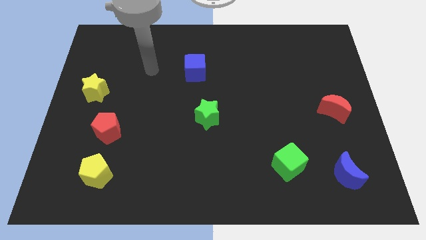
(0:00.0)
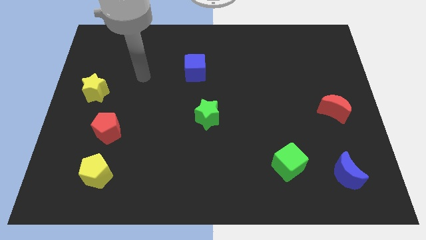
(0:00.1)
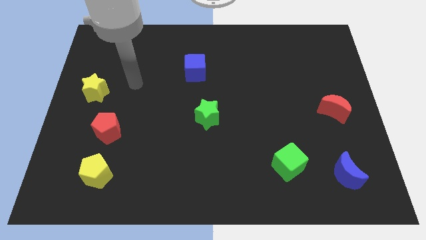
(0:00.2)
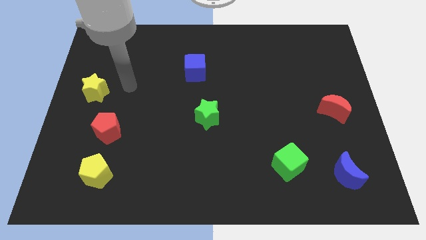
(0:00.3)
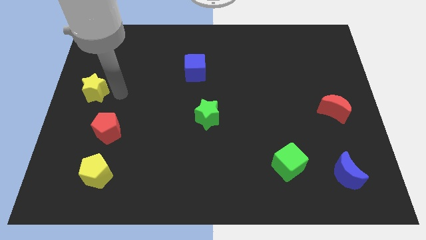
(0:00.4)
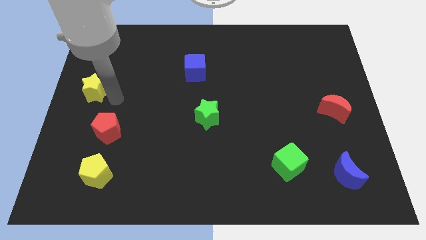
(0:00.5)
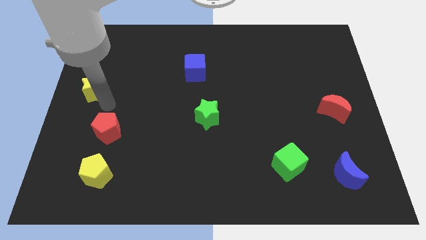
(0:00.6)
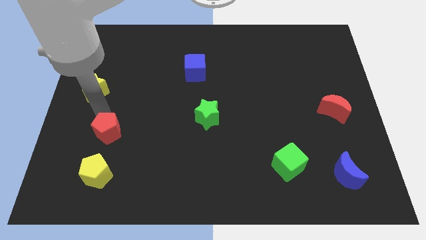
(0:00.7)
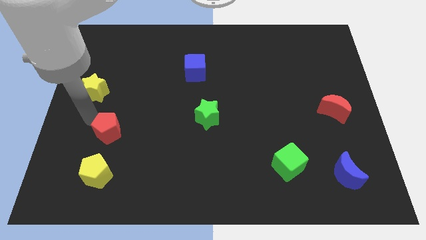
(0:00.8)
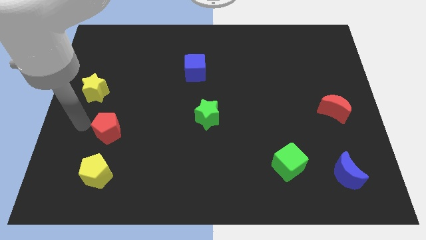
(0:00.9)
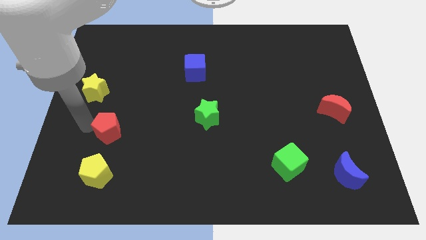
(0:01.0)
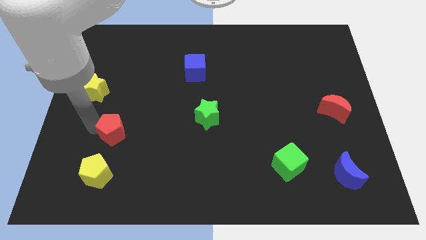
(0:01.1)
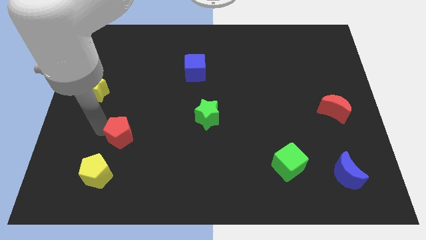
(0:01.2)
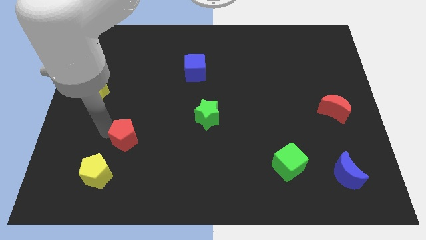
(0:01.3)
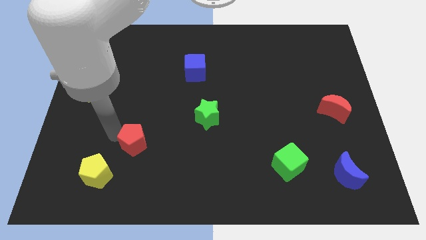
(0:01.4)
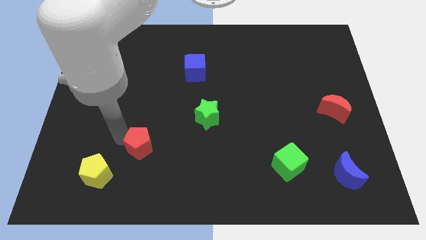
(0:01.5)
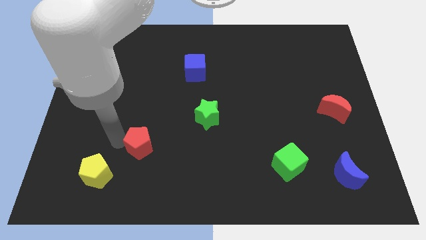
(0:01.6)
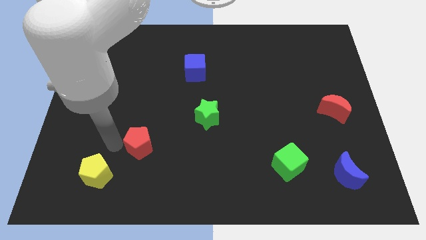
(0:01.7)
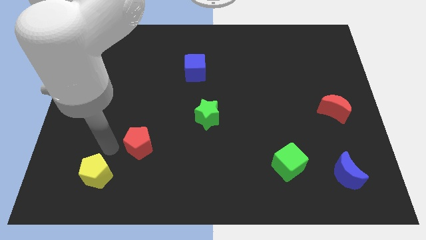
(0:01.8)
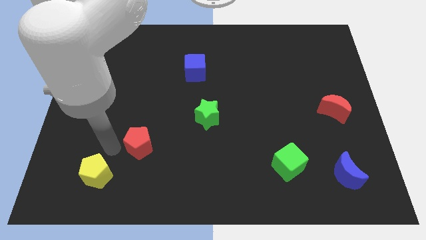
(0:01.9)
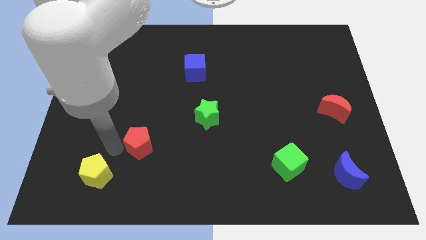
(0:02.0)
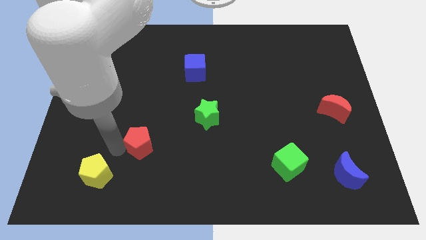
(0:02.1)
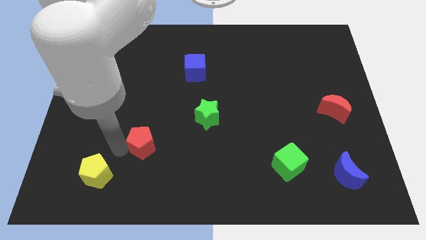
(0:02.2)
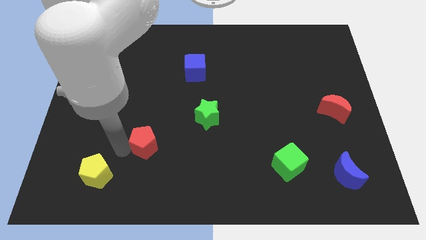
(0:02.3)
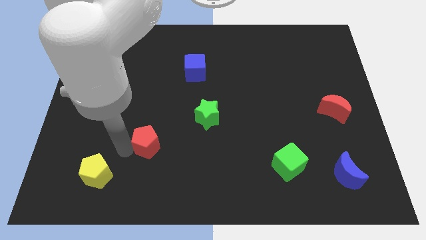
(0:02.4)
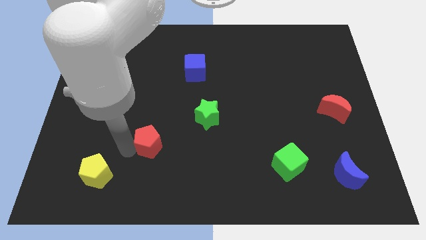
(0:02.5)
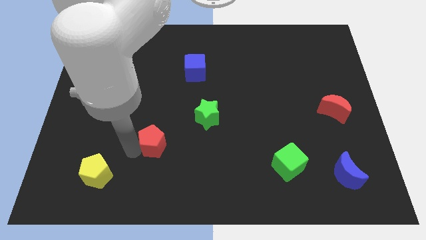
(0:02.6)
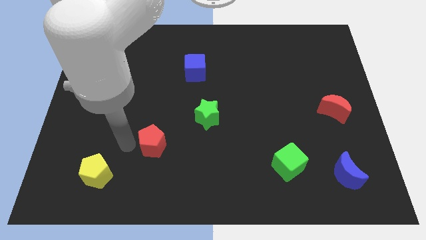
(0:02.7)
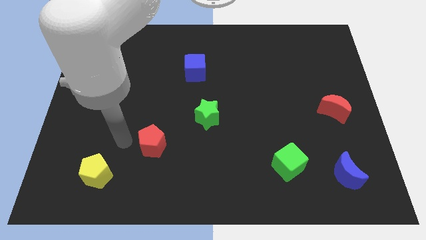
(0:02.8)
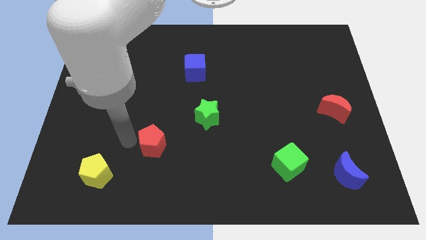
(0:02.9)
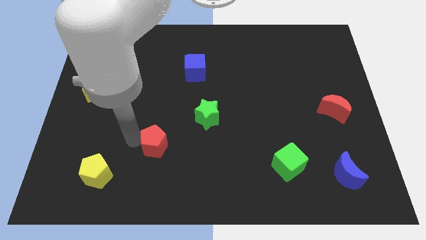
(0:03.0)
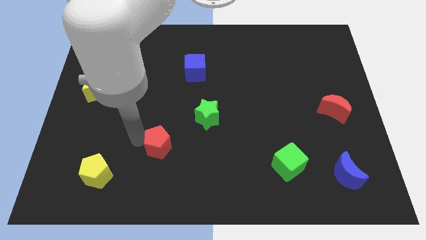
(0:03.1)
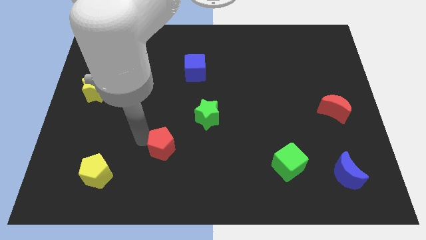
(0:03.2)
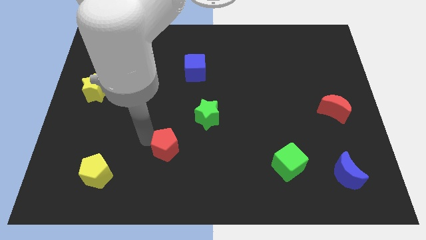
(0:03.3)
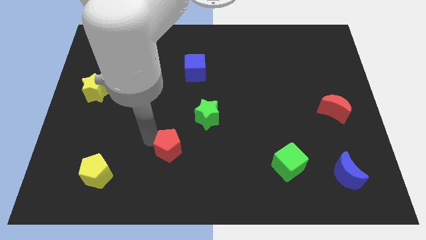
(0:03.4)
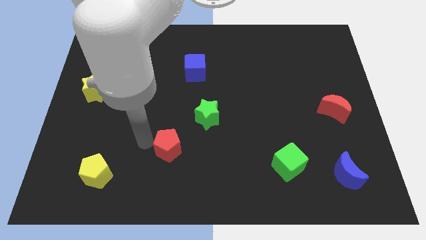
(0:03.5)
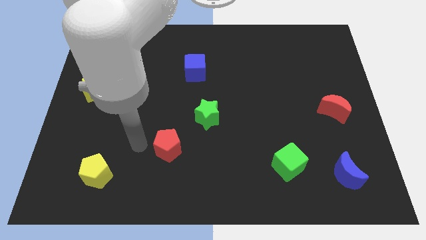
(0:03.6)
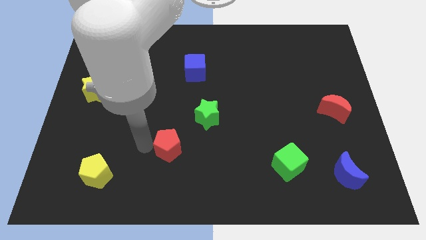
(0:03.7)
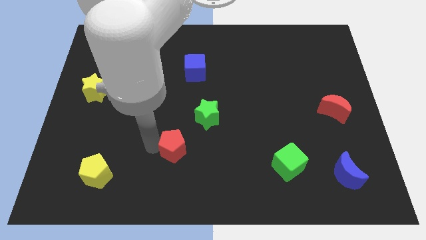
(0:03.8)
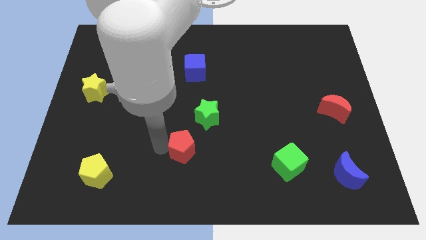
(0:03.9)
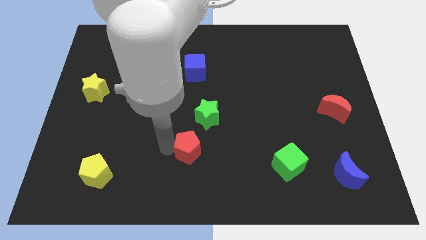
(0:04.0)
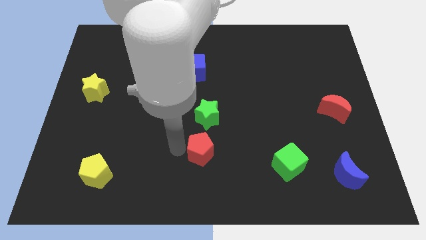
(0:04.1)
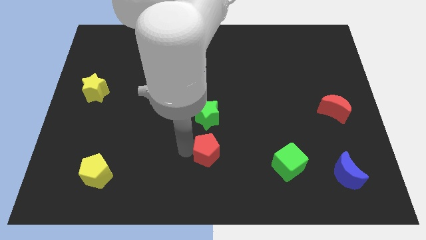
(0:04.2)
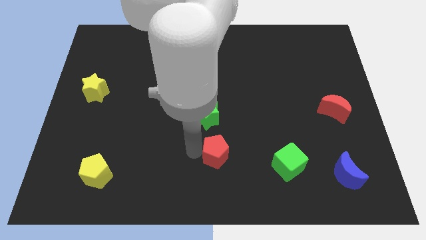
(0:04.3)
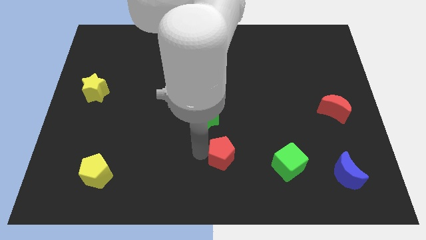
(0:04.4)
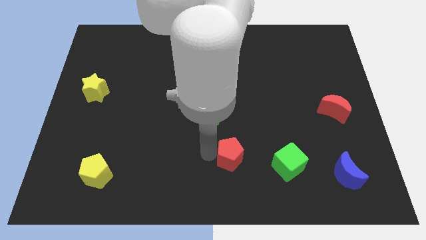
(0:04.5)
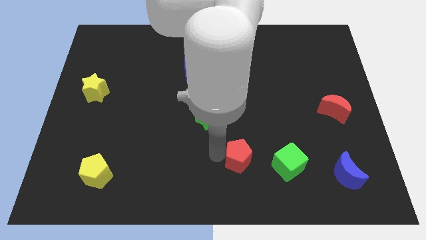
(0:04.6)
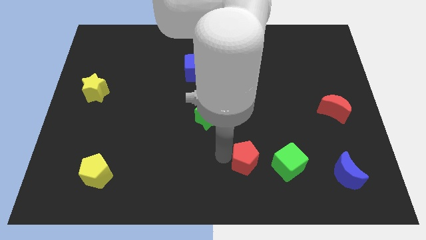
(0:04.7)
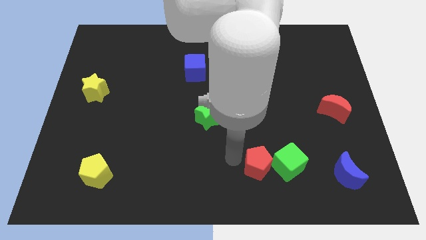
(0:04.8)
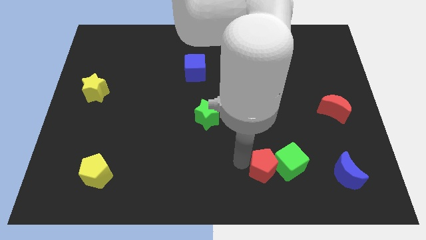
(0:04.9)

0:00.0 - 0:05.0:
push the red pentagon close to the green cube

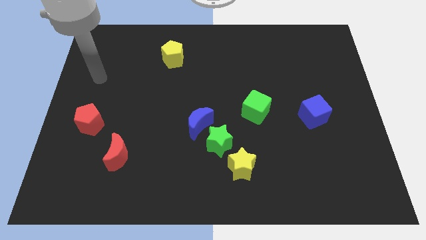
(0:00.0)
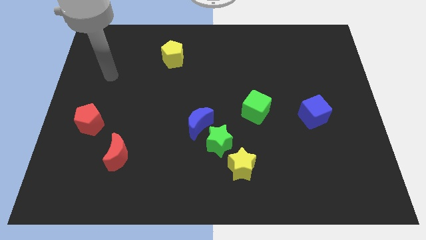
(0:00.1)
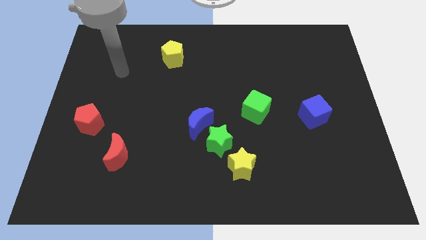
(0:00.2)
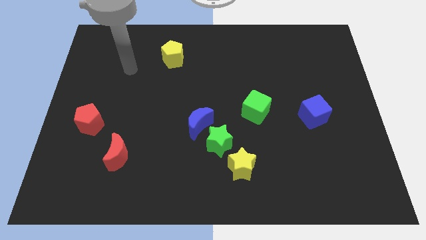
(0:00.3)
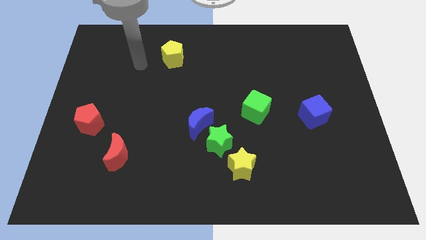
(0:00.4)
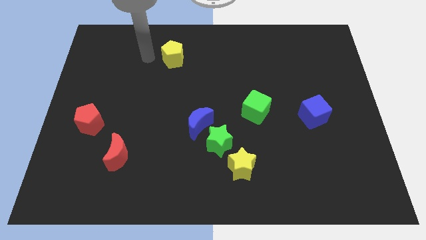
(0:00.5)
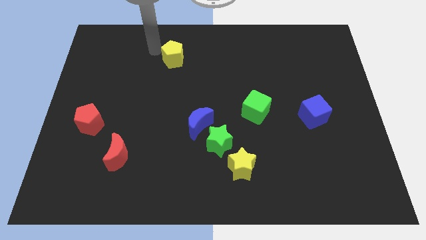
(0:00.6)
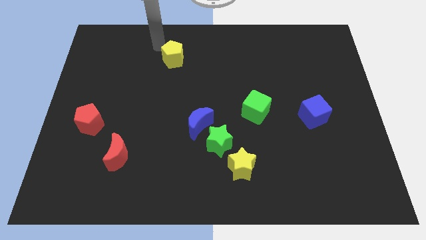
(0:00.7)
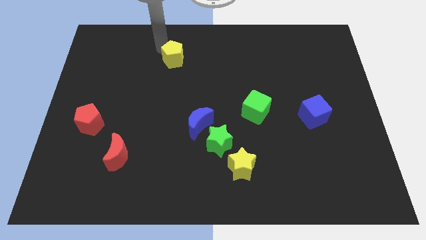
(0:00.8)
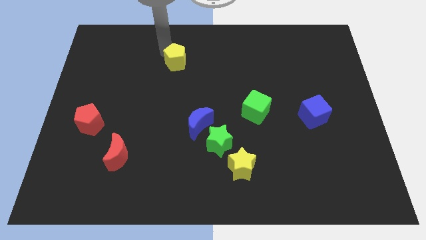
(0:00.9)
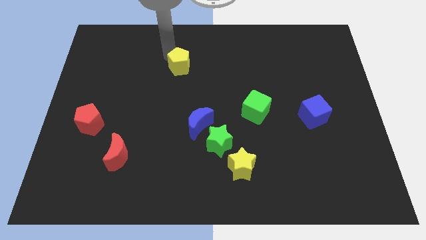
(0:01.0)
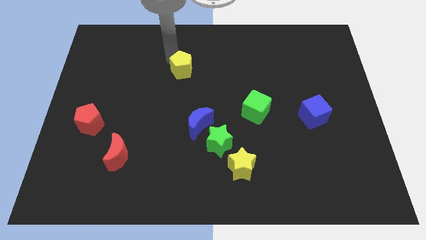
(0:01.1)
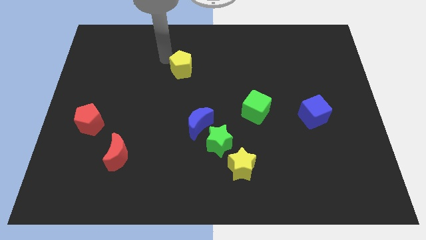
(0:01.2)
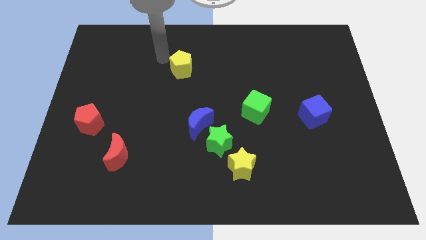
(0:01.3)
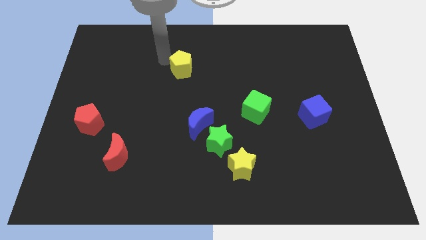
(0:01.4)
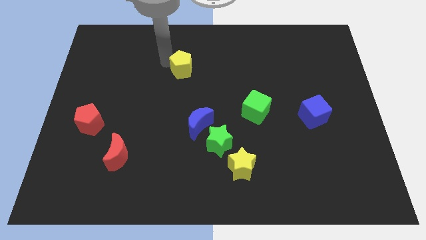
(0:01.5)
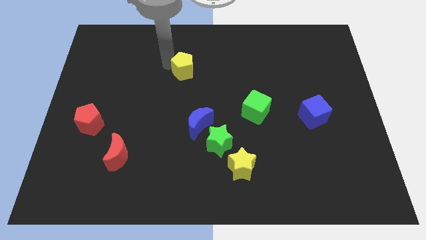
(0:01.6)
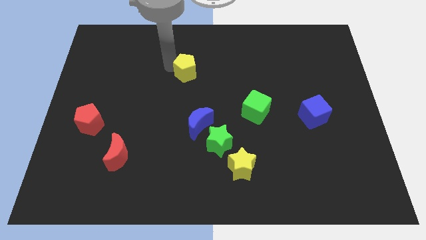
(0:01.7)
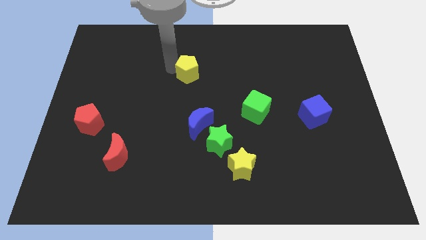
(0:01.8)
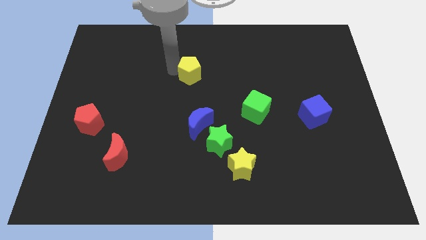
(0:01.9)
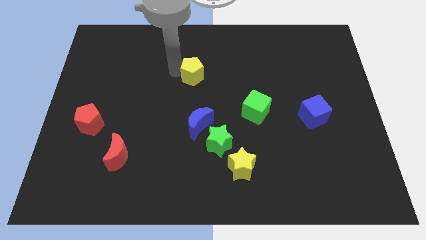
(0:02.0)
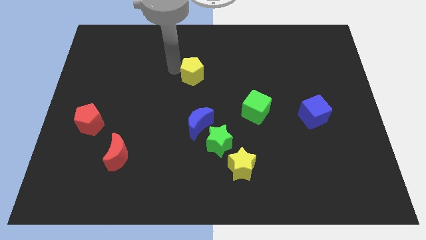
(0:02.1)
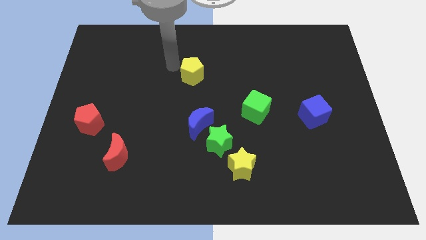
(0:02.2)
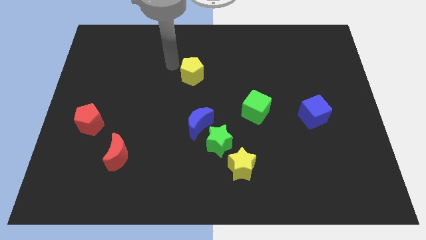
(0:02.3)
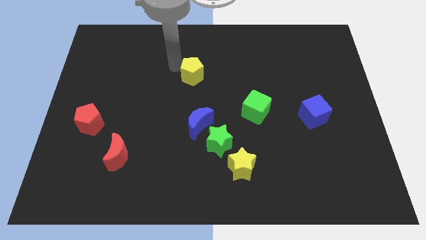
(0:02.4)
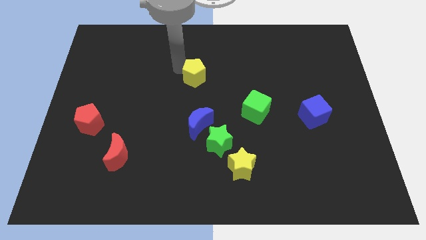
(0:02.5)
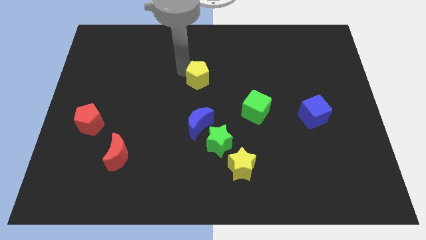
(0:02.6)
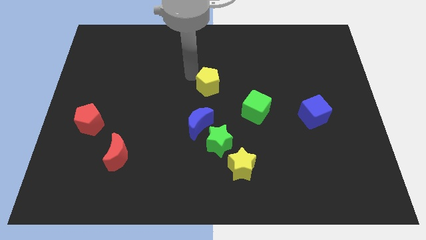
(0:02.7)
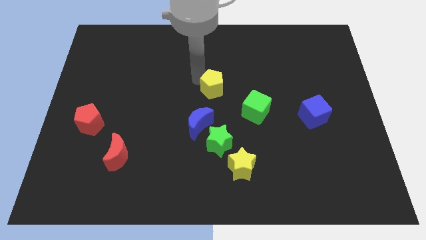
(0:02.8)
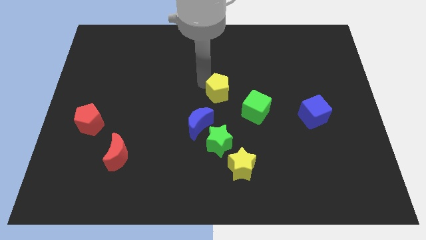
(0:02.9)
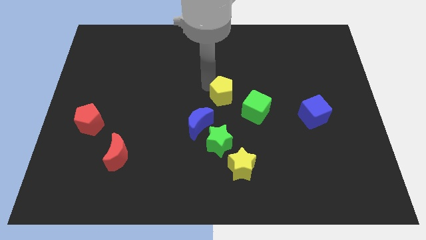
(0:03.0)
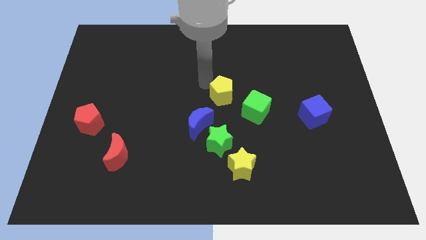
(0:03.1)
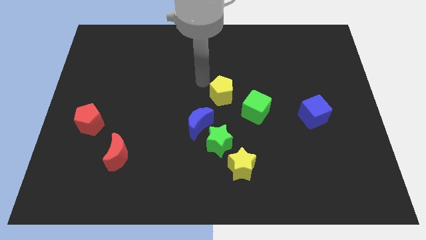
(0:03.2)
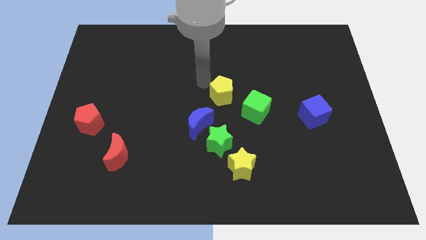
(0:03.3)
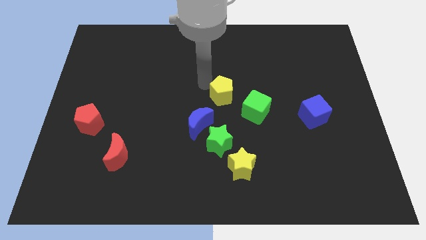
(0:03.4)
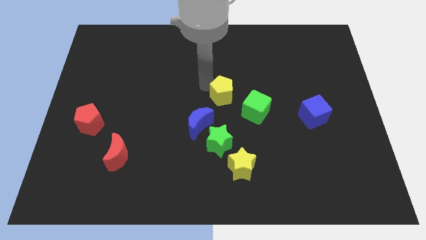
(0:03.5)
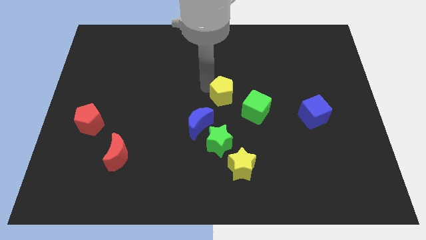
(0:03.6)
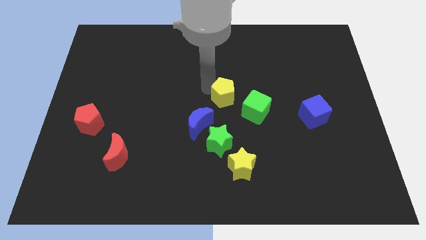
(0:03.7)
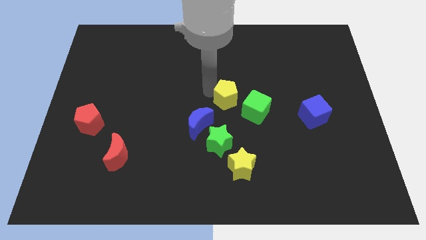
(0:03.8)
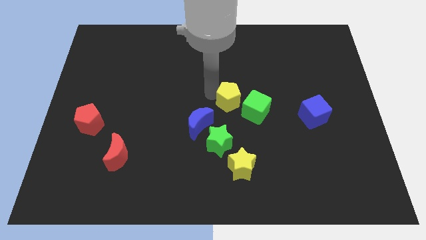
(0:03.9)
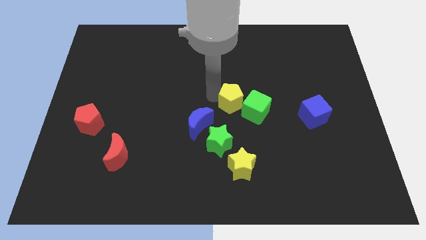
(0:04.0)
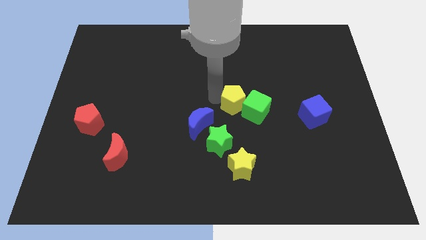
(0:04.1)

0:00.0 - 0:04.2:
move the yellow pentagon close to the green cube
